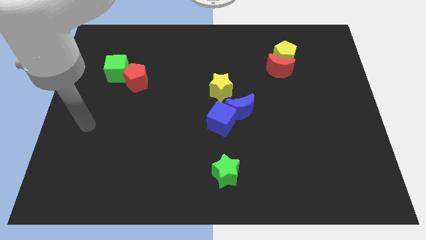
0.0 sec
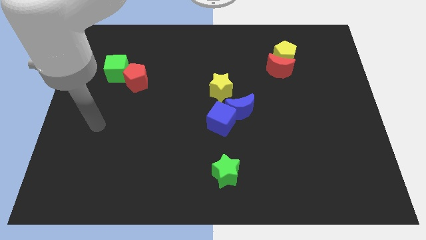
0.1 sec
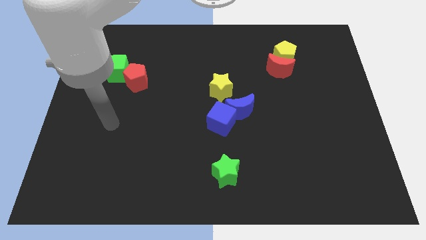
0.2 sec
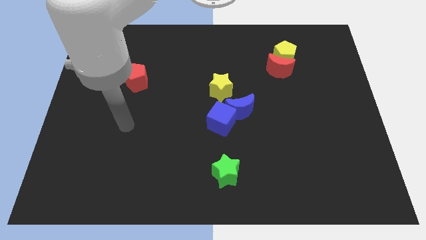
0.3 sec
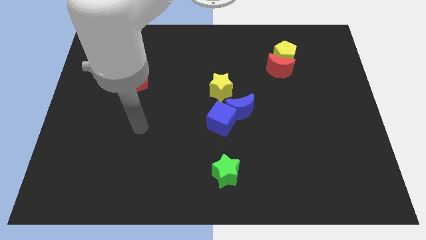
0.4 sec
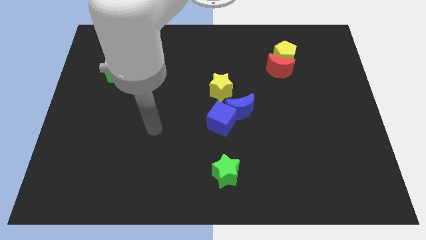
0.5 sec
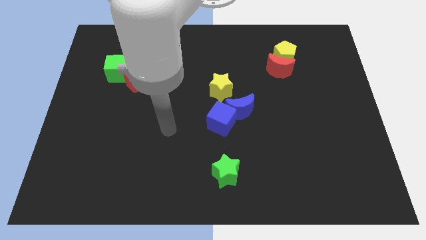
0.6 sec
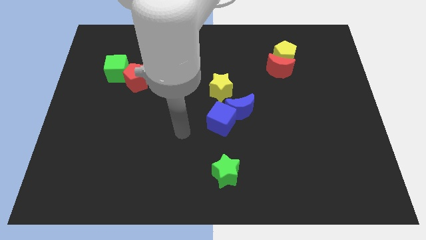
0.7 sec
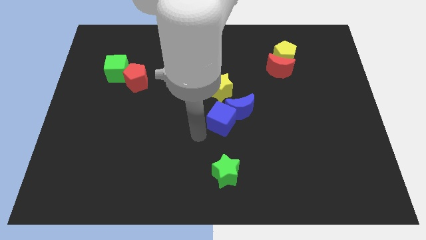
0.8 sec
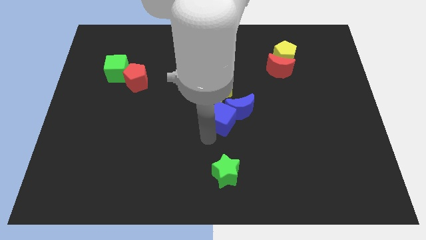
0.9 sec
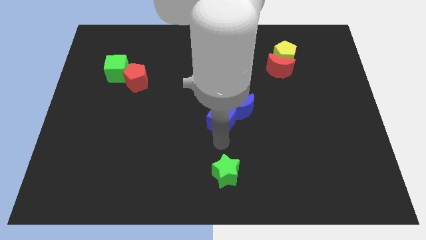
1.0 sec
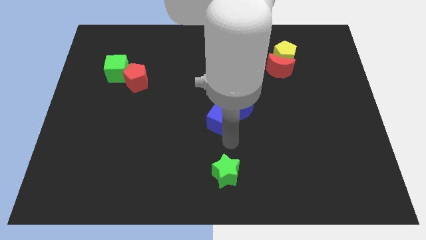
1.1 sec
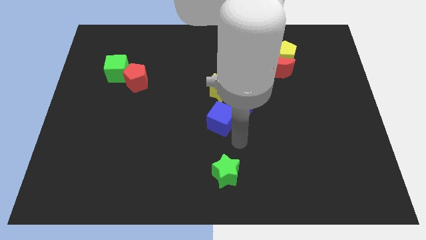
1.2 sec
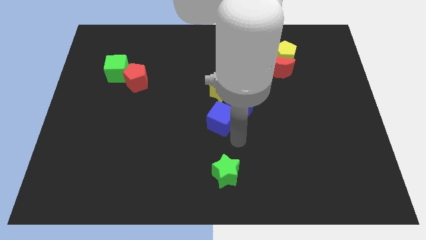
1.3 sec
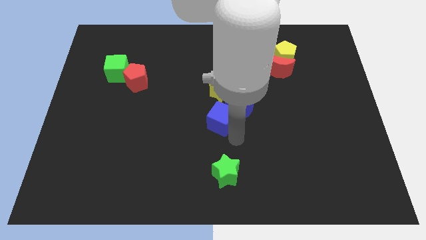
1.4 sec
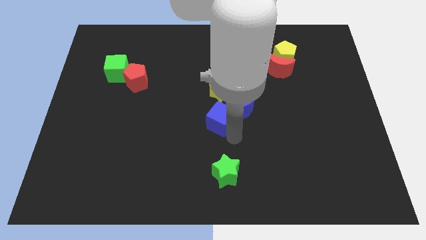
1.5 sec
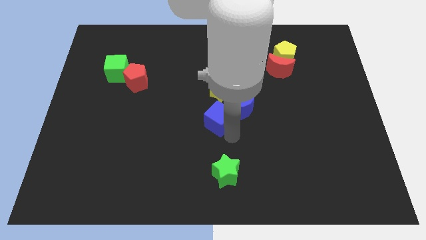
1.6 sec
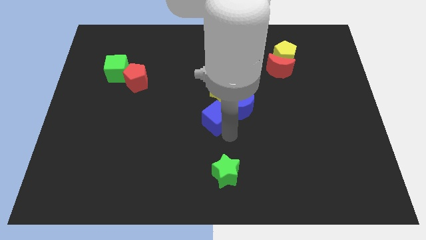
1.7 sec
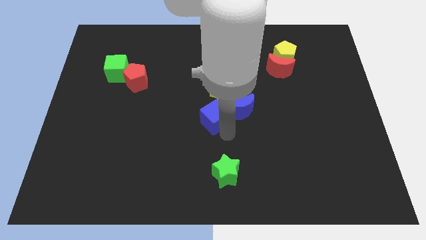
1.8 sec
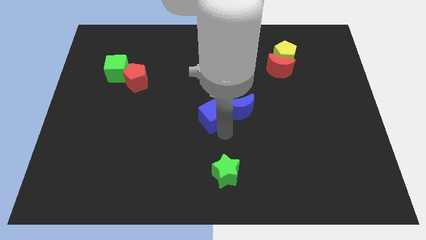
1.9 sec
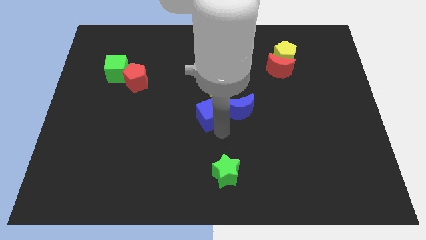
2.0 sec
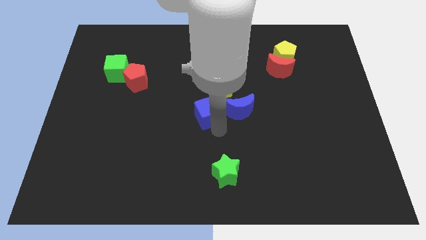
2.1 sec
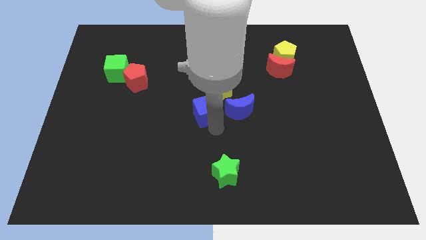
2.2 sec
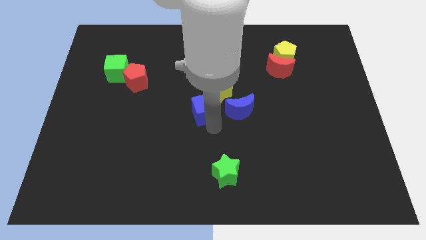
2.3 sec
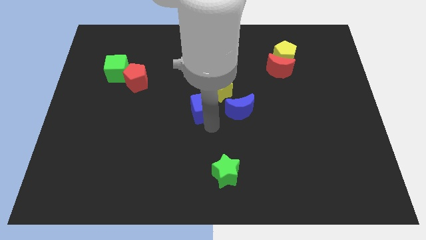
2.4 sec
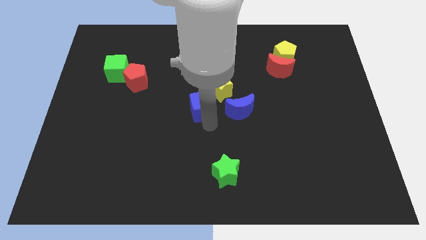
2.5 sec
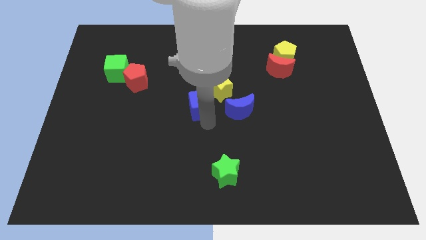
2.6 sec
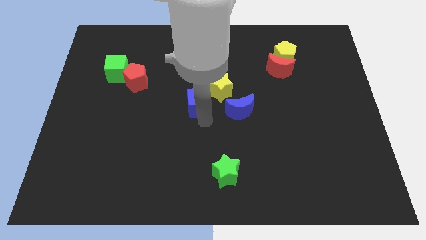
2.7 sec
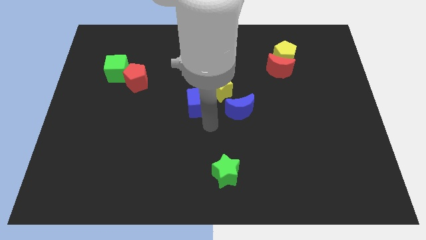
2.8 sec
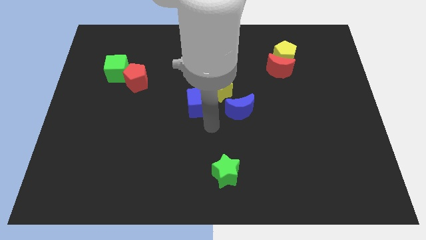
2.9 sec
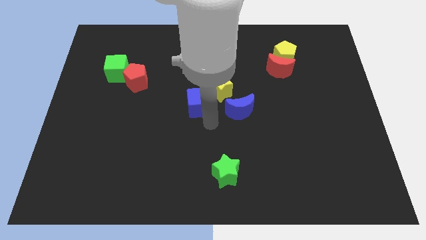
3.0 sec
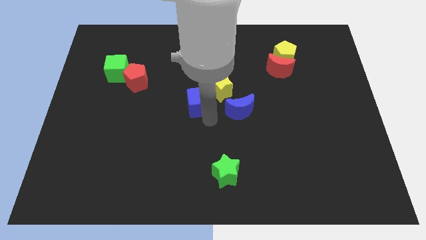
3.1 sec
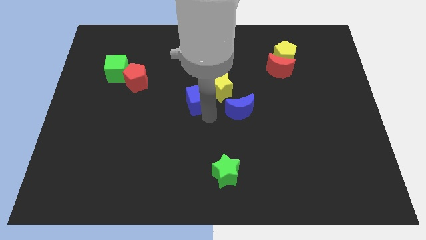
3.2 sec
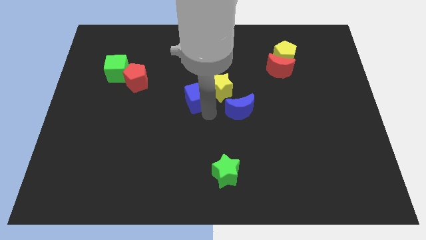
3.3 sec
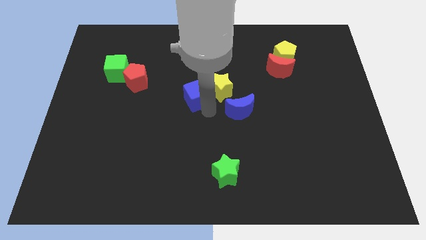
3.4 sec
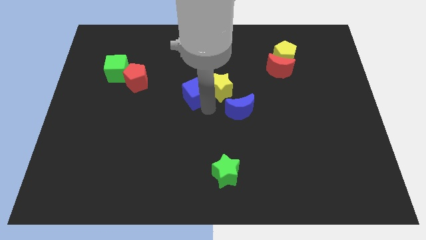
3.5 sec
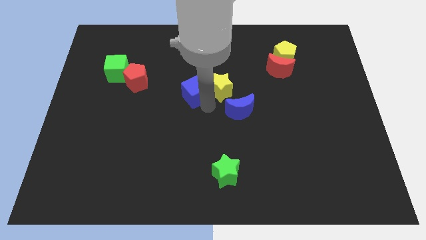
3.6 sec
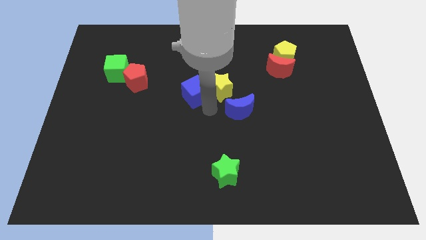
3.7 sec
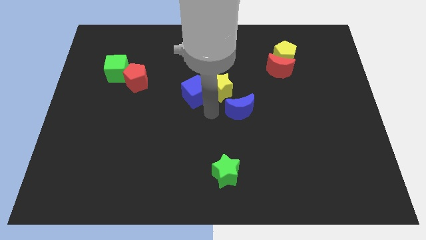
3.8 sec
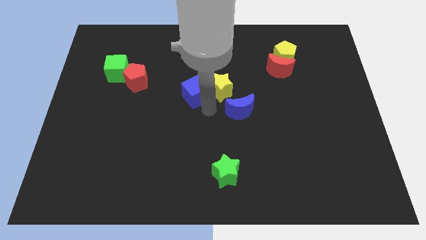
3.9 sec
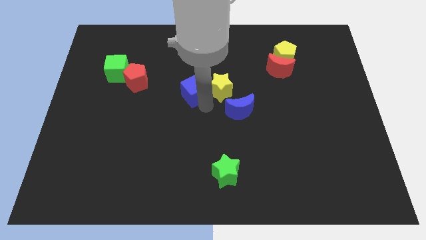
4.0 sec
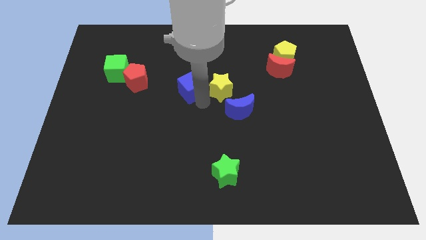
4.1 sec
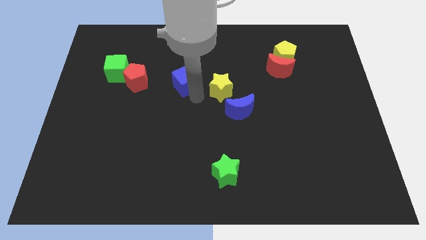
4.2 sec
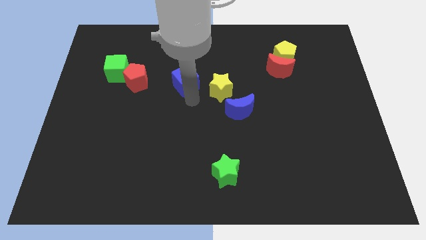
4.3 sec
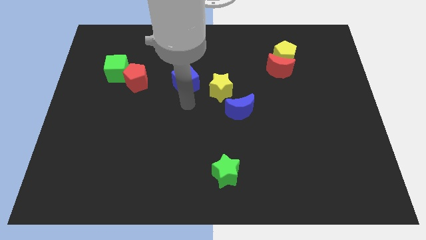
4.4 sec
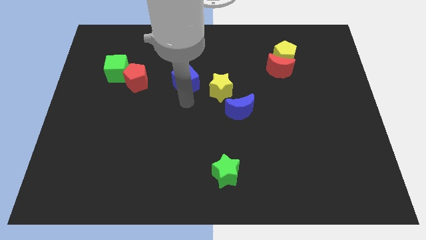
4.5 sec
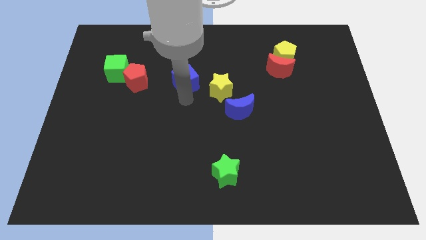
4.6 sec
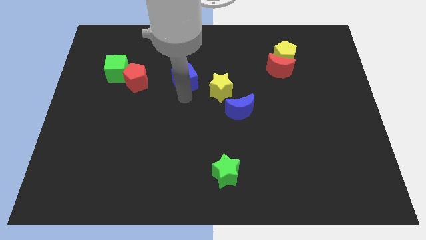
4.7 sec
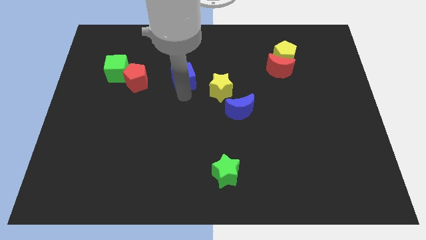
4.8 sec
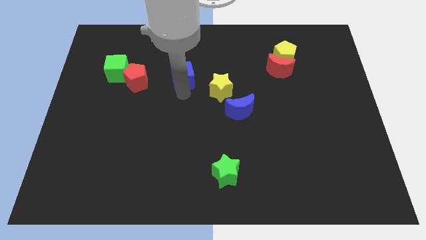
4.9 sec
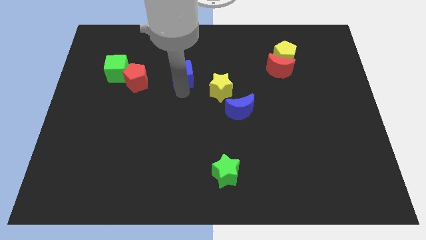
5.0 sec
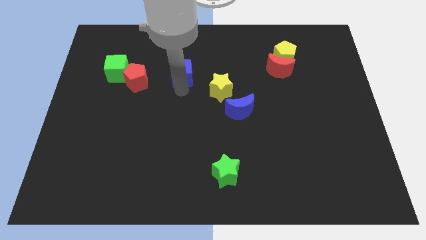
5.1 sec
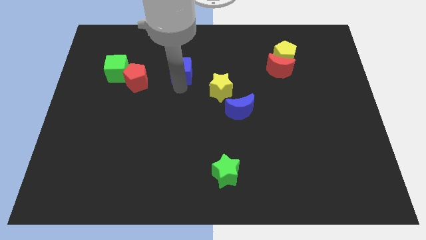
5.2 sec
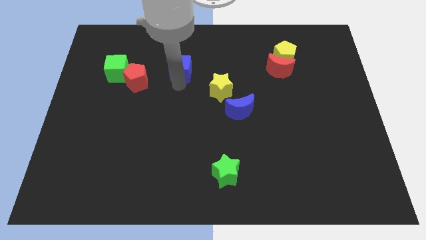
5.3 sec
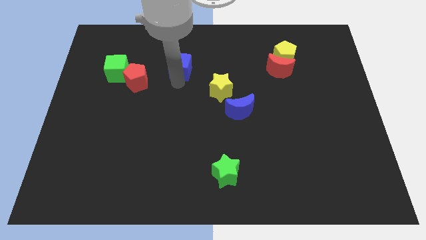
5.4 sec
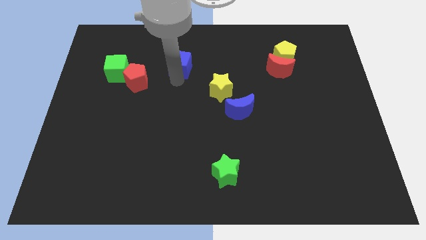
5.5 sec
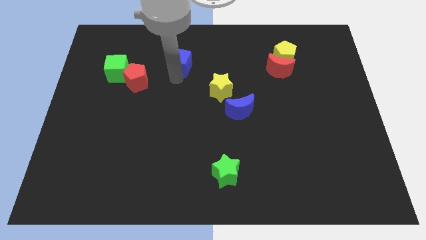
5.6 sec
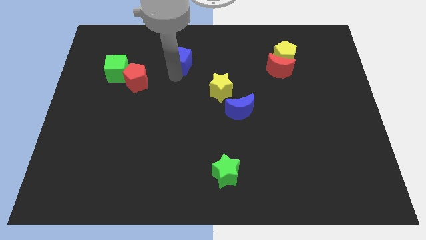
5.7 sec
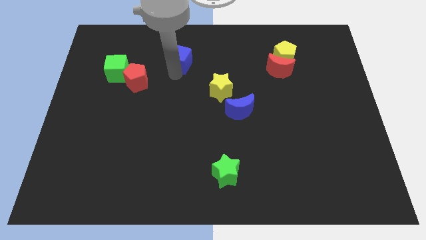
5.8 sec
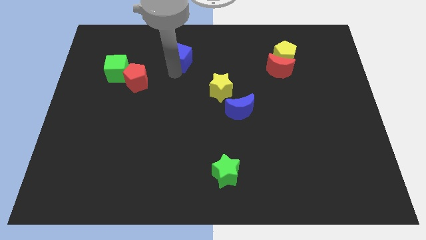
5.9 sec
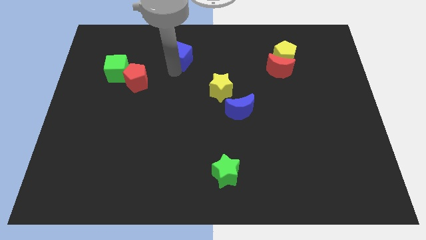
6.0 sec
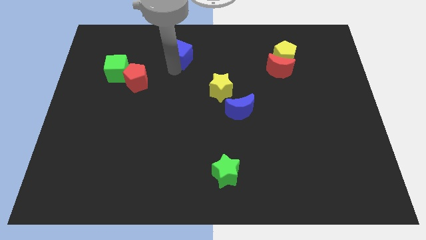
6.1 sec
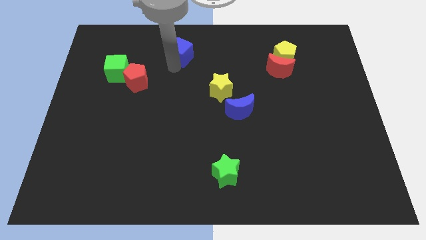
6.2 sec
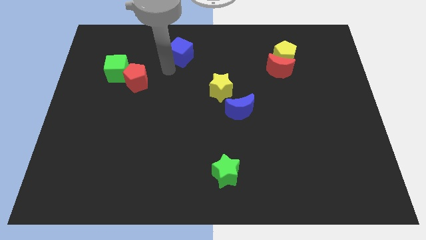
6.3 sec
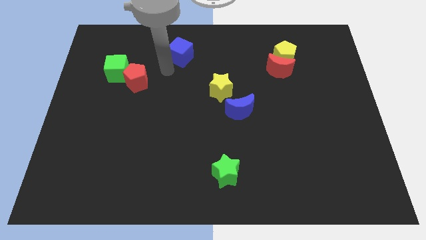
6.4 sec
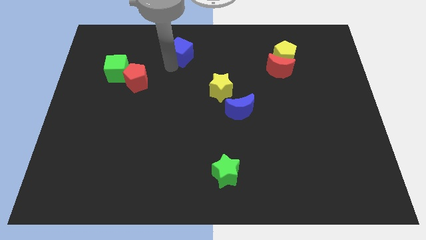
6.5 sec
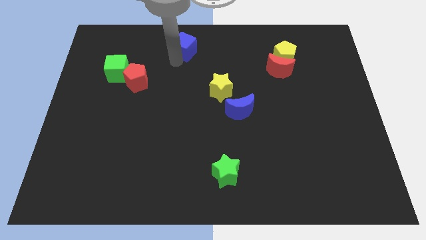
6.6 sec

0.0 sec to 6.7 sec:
slide the blue cube to the towards your base

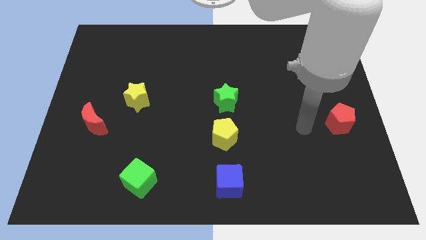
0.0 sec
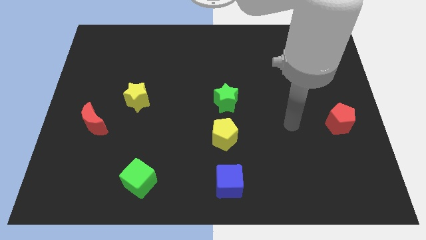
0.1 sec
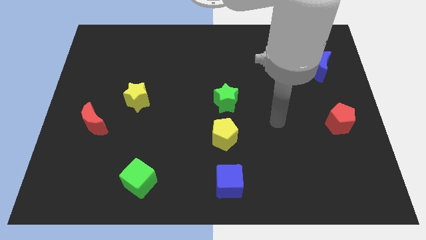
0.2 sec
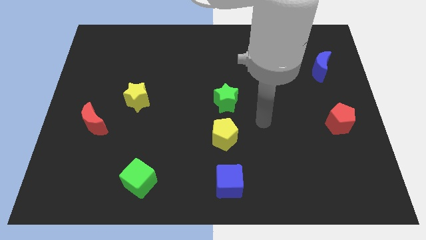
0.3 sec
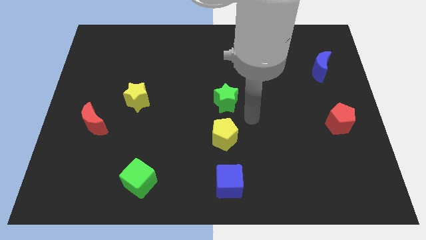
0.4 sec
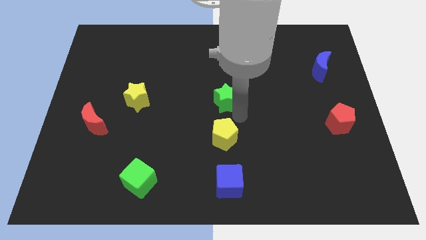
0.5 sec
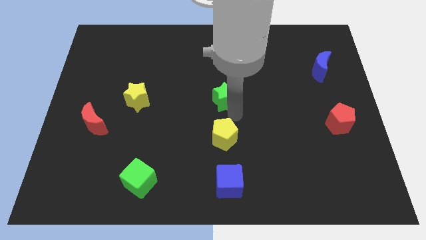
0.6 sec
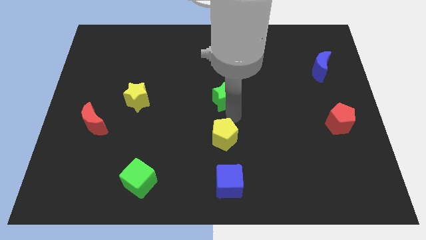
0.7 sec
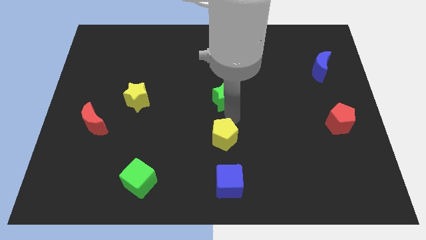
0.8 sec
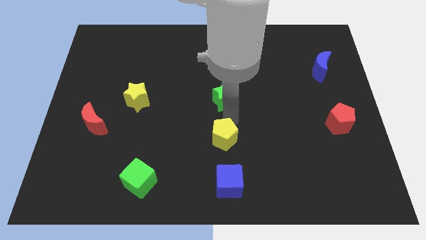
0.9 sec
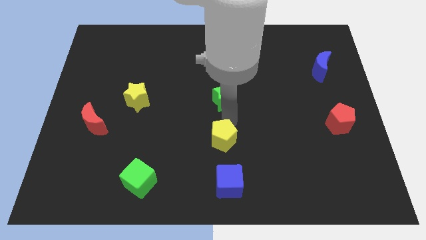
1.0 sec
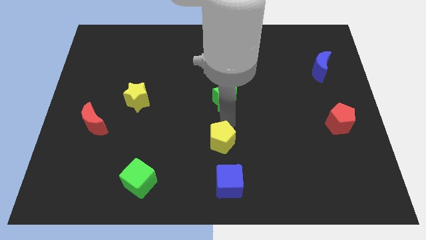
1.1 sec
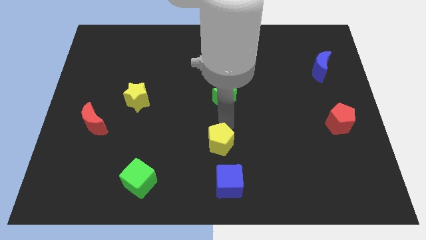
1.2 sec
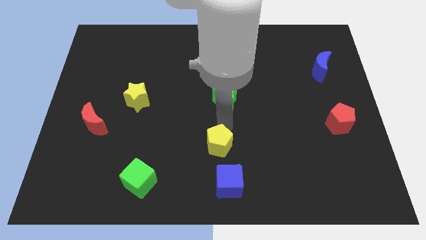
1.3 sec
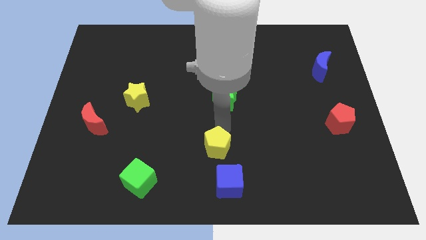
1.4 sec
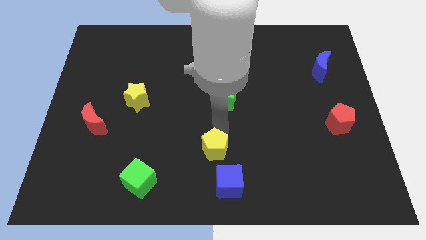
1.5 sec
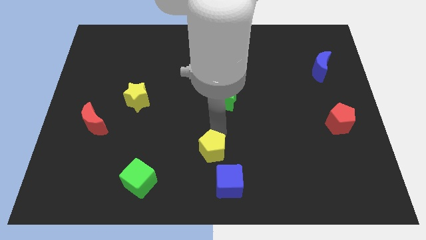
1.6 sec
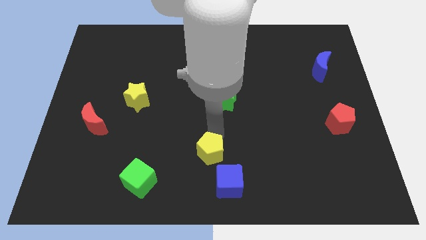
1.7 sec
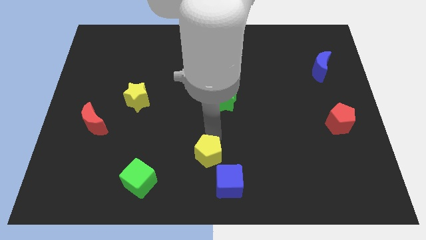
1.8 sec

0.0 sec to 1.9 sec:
move the yellow pentagon to the bottom
